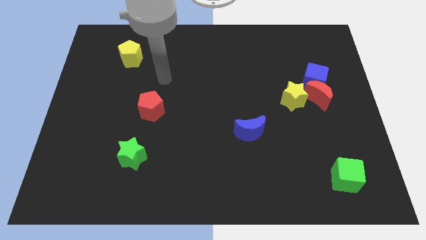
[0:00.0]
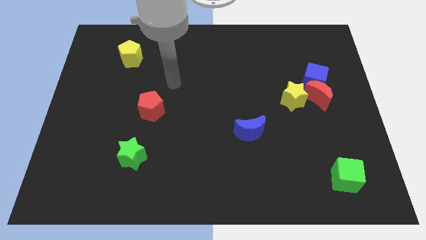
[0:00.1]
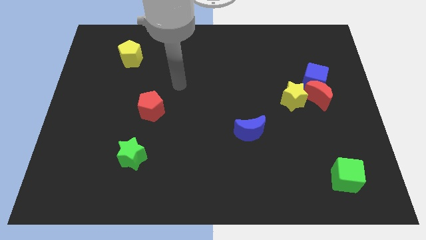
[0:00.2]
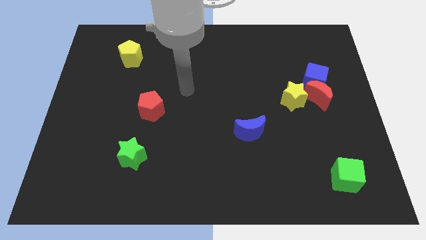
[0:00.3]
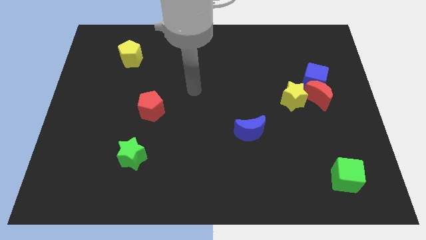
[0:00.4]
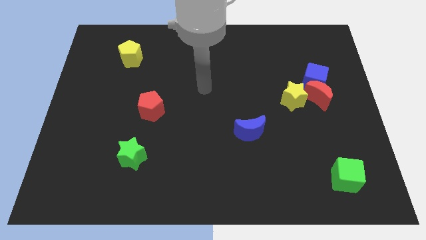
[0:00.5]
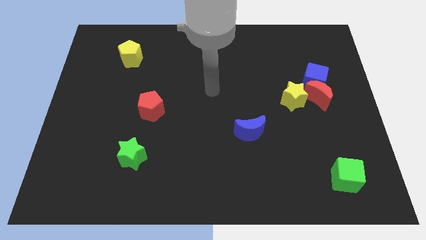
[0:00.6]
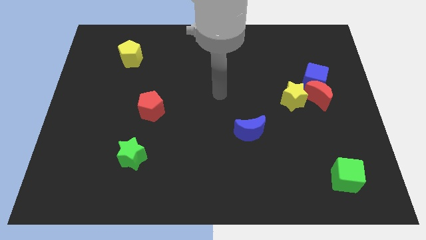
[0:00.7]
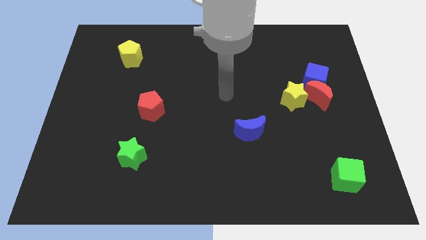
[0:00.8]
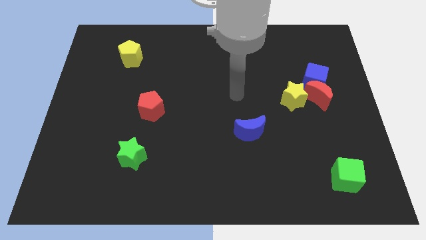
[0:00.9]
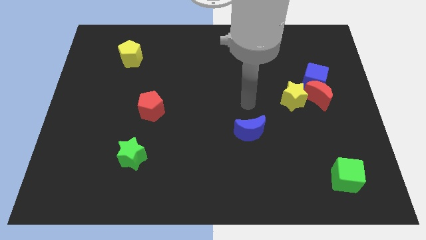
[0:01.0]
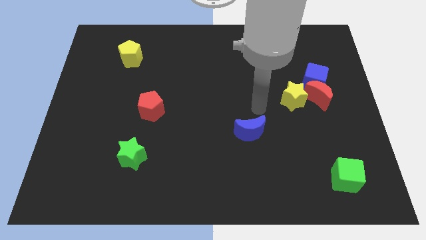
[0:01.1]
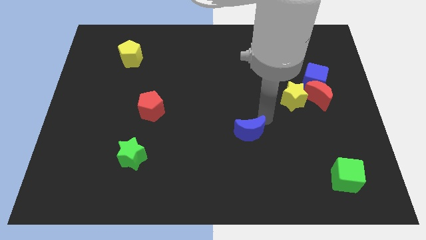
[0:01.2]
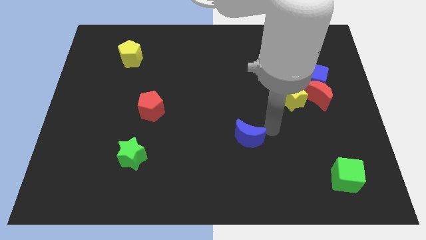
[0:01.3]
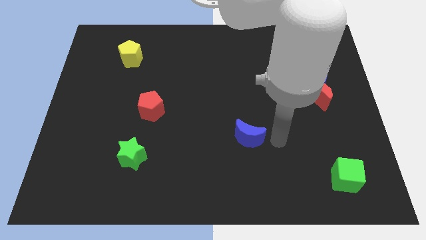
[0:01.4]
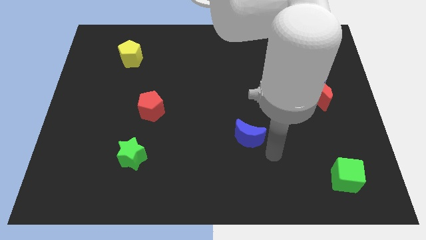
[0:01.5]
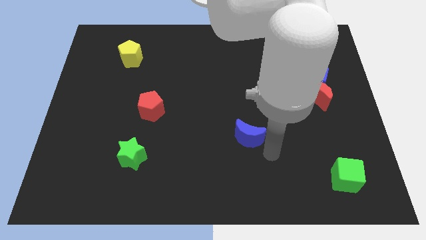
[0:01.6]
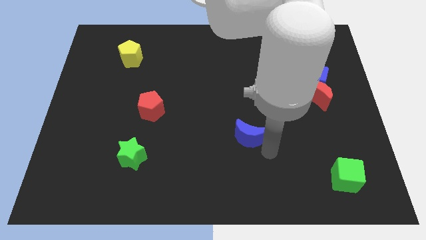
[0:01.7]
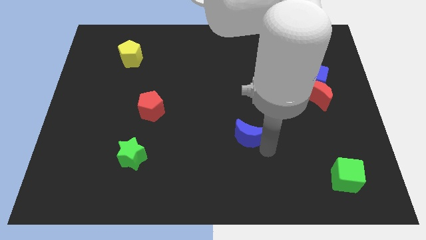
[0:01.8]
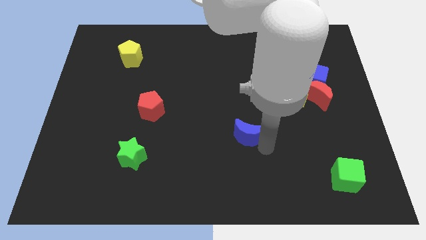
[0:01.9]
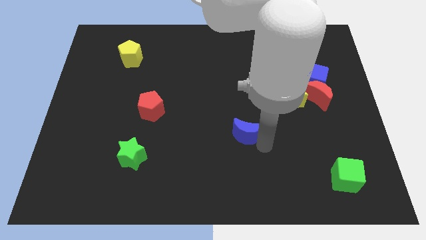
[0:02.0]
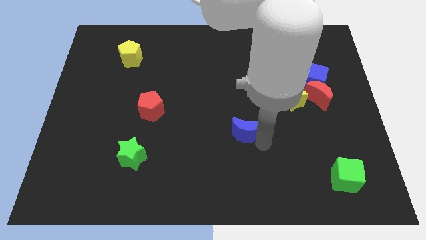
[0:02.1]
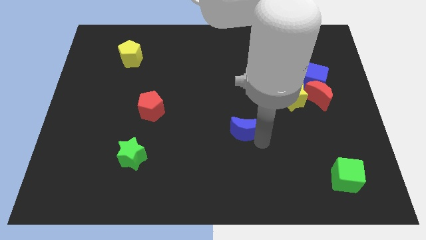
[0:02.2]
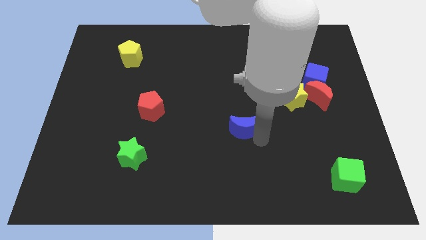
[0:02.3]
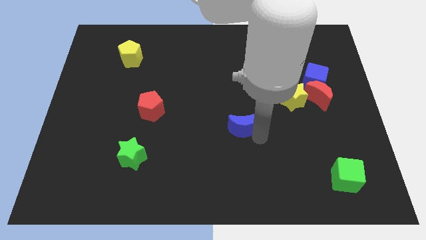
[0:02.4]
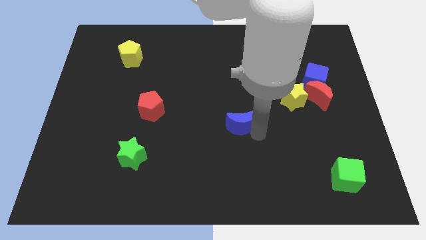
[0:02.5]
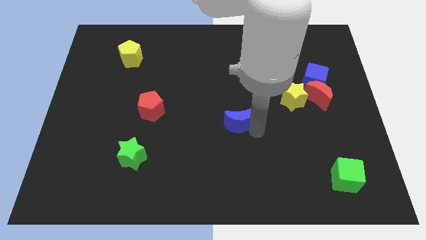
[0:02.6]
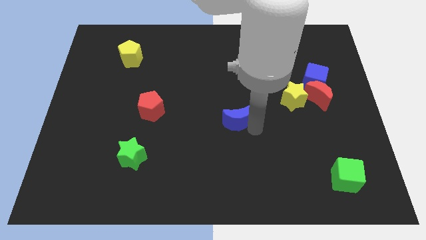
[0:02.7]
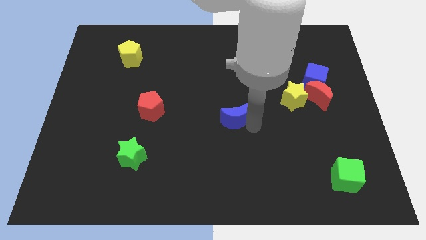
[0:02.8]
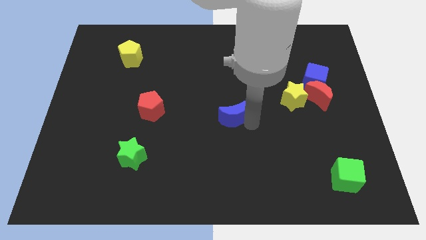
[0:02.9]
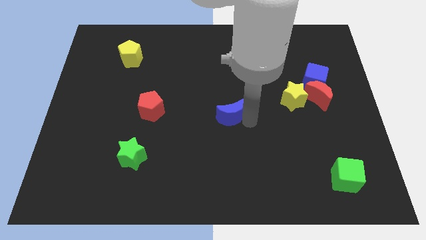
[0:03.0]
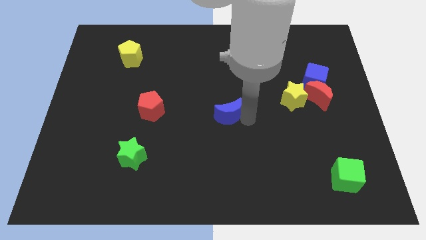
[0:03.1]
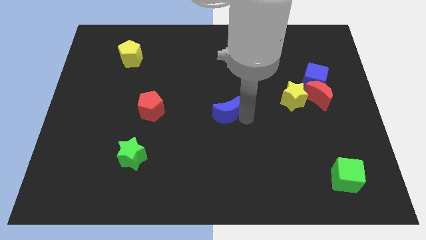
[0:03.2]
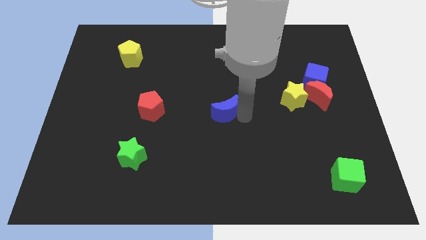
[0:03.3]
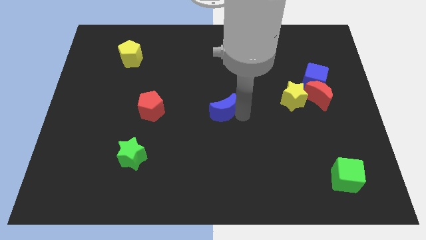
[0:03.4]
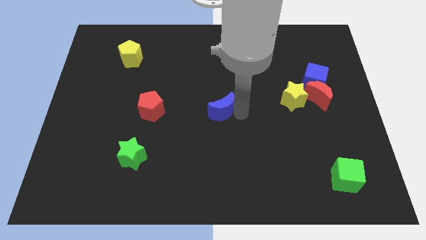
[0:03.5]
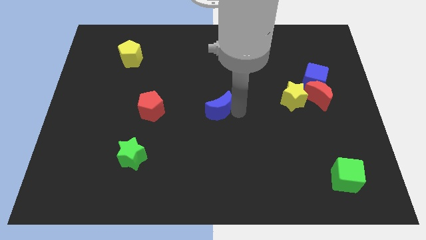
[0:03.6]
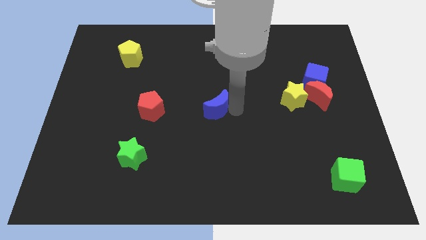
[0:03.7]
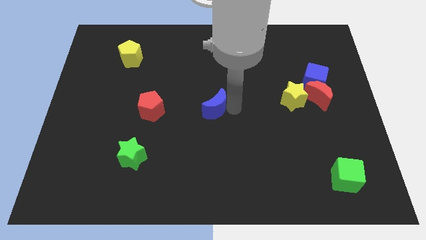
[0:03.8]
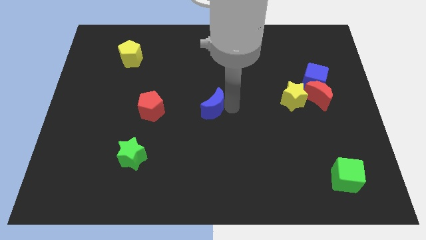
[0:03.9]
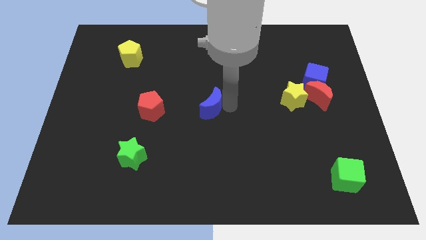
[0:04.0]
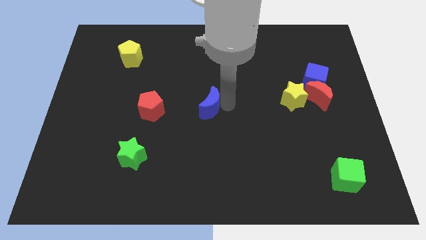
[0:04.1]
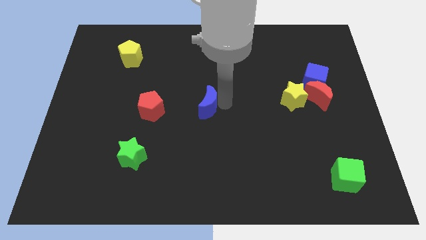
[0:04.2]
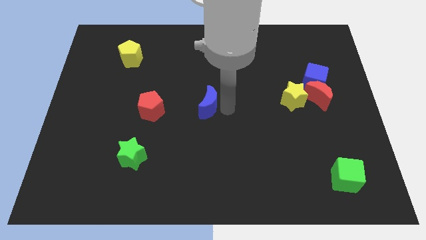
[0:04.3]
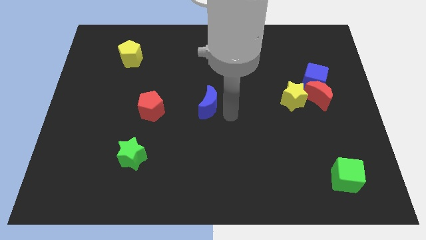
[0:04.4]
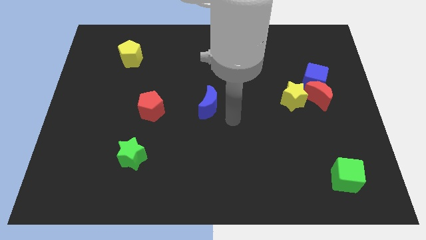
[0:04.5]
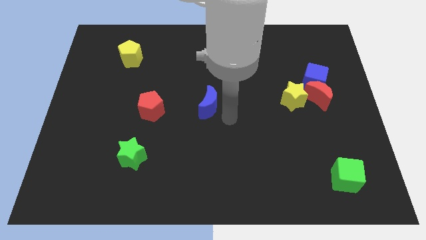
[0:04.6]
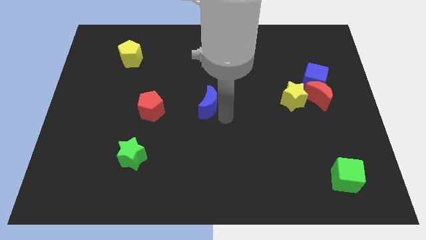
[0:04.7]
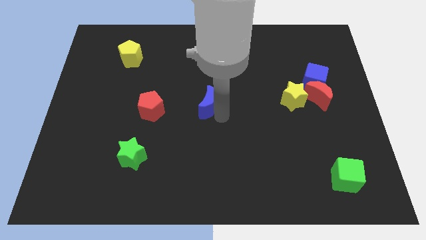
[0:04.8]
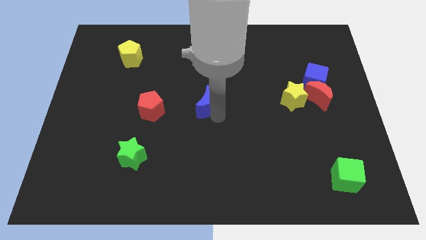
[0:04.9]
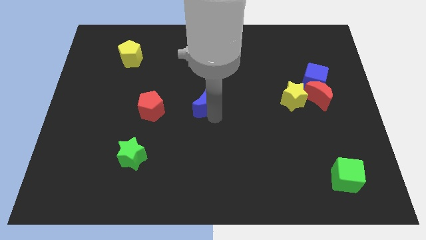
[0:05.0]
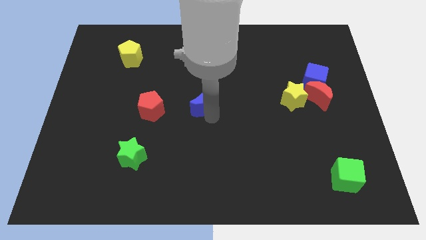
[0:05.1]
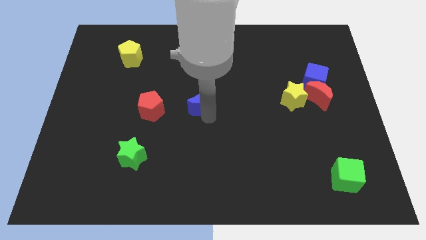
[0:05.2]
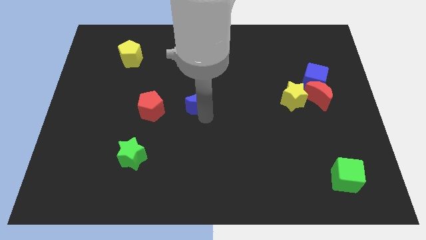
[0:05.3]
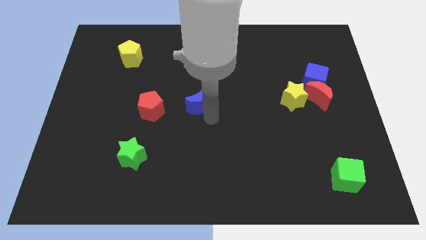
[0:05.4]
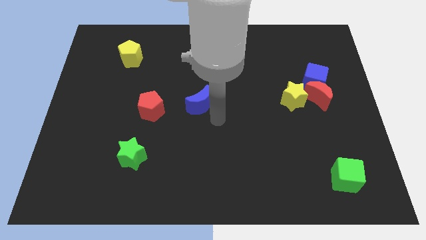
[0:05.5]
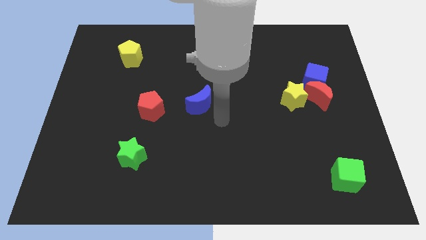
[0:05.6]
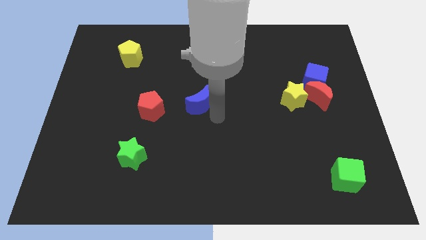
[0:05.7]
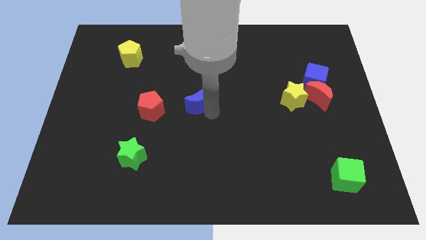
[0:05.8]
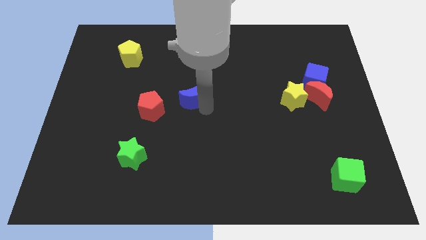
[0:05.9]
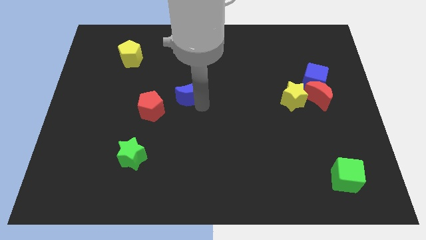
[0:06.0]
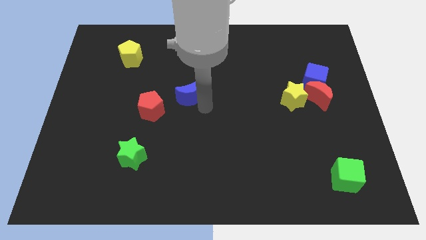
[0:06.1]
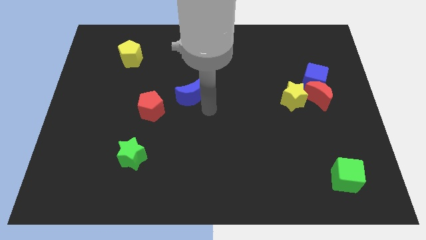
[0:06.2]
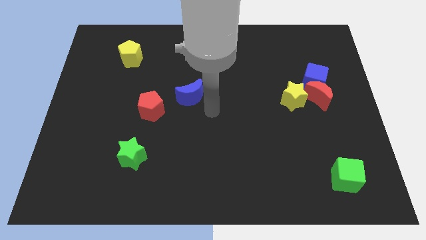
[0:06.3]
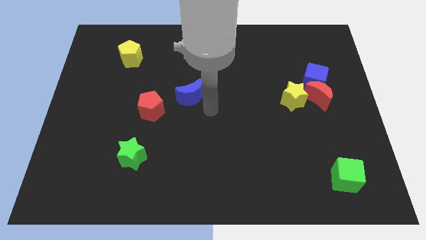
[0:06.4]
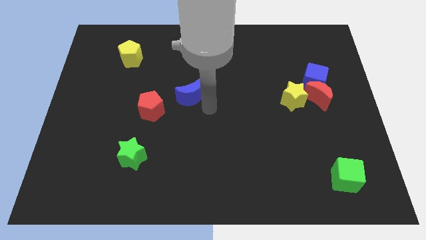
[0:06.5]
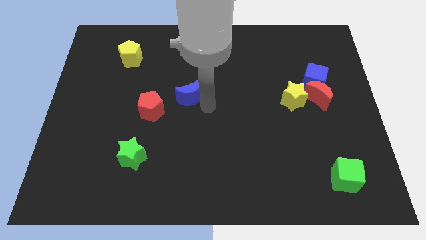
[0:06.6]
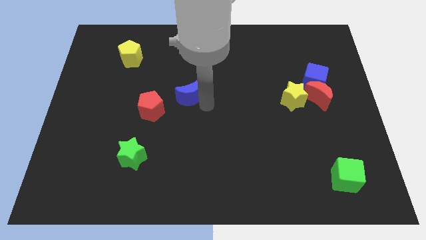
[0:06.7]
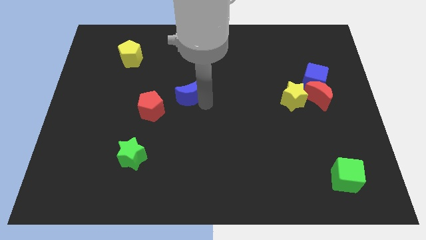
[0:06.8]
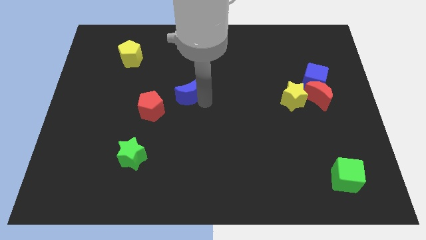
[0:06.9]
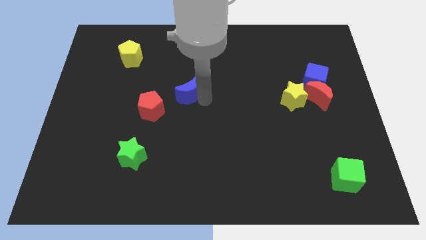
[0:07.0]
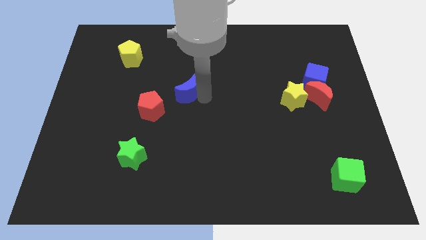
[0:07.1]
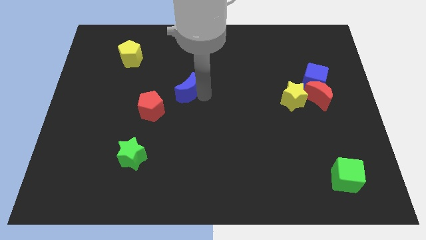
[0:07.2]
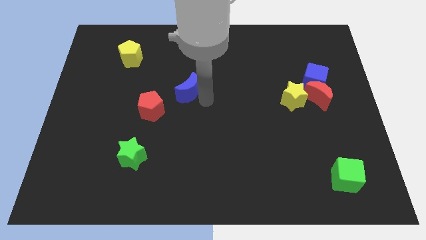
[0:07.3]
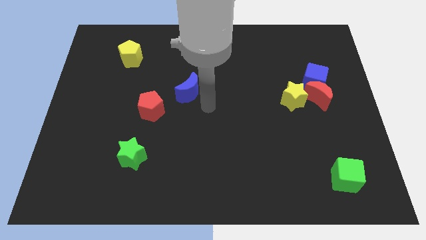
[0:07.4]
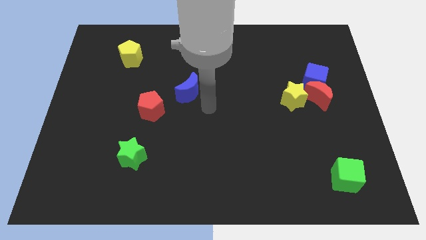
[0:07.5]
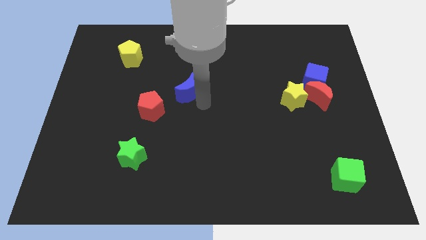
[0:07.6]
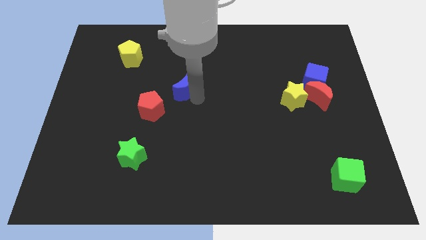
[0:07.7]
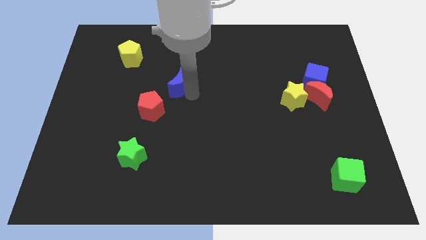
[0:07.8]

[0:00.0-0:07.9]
slide the blue moon up and to the left diagonally

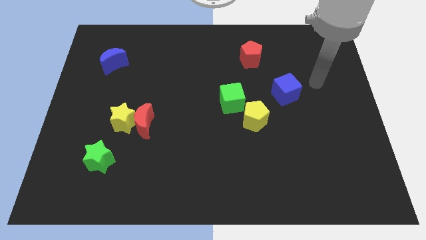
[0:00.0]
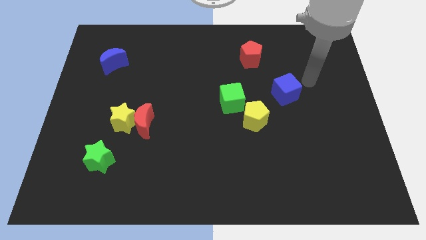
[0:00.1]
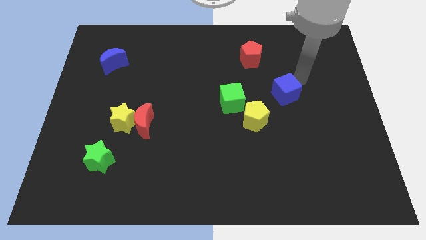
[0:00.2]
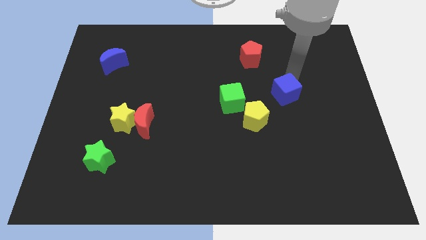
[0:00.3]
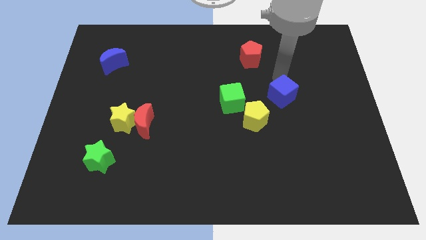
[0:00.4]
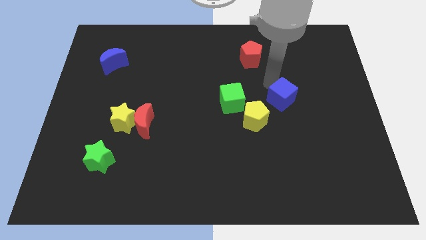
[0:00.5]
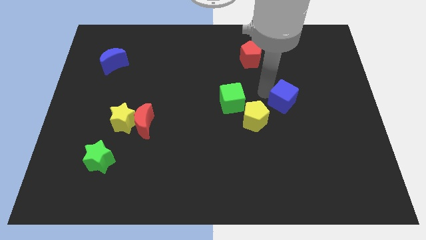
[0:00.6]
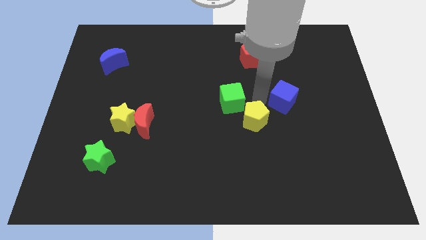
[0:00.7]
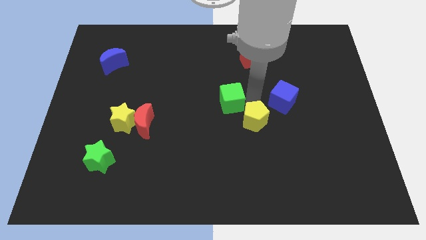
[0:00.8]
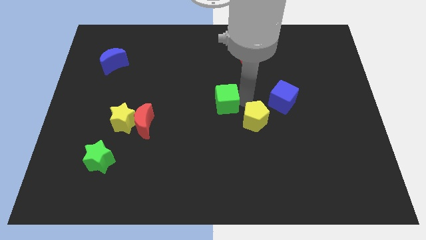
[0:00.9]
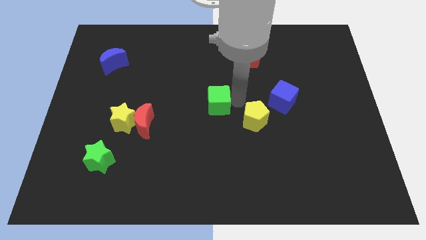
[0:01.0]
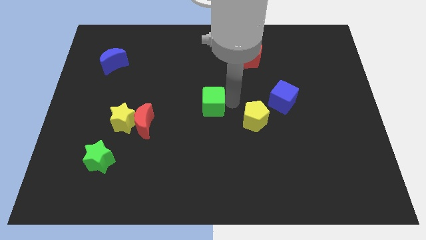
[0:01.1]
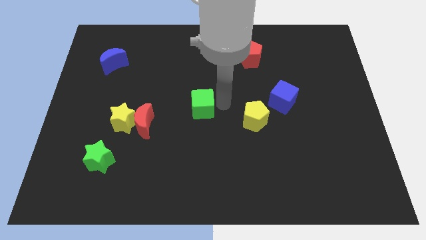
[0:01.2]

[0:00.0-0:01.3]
slightly slide the green cube to the left
